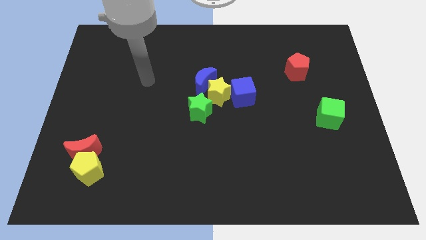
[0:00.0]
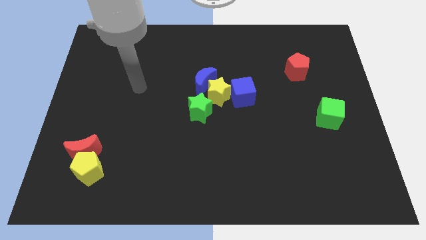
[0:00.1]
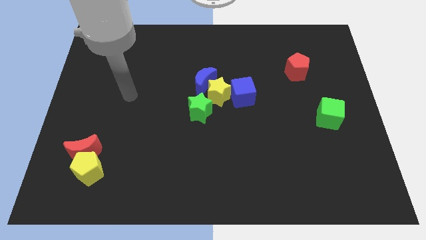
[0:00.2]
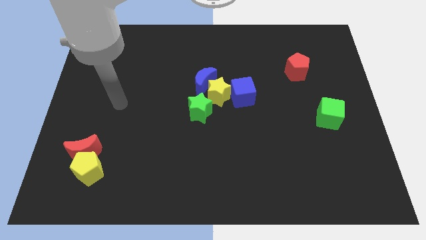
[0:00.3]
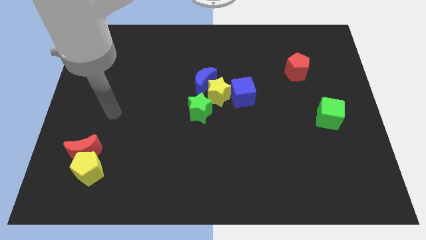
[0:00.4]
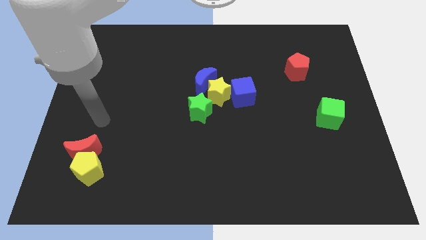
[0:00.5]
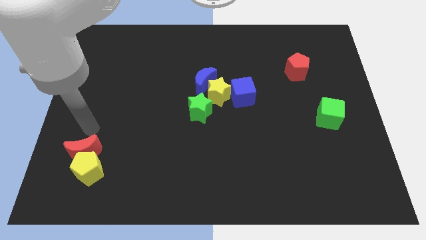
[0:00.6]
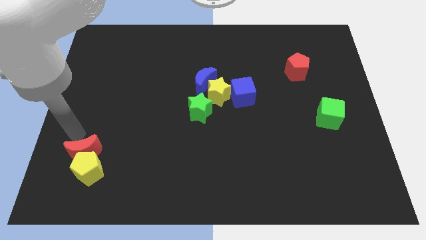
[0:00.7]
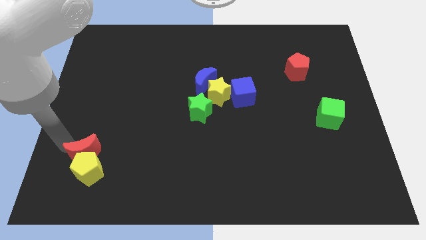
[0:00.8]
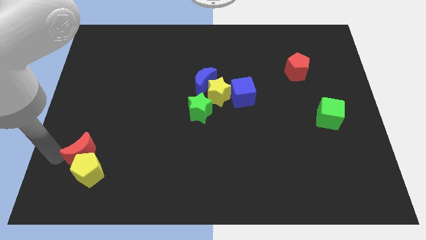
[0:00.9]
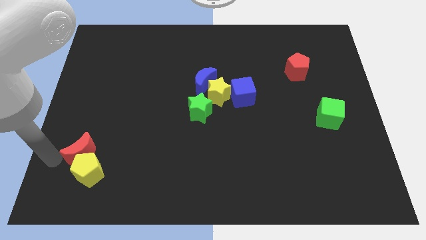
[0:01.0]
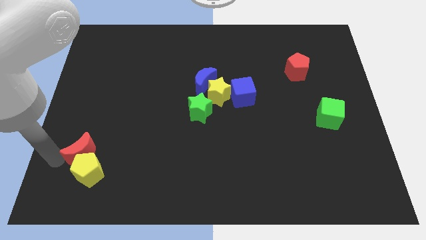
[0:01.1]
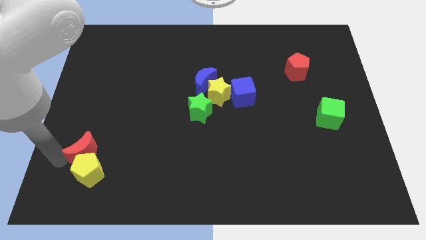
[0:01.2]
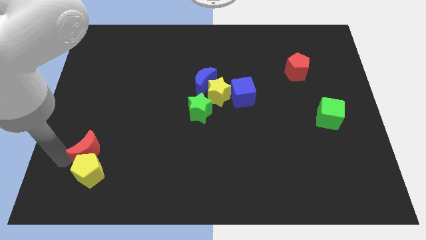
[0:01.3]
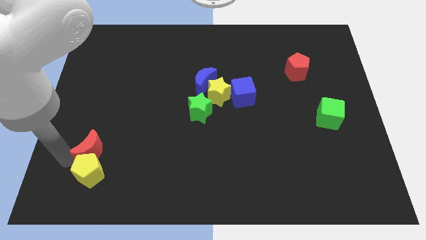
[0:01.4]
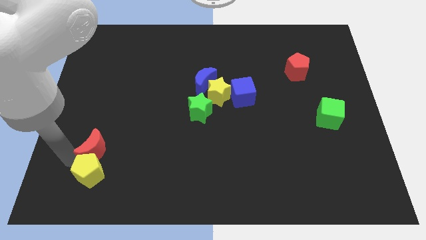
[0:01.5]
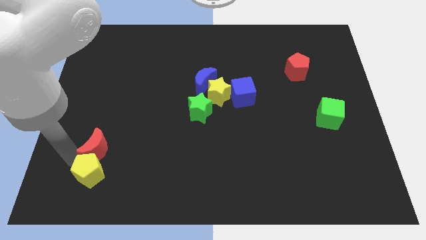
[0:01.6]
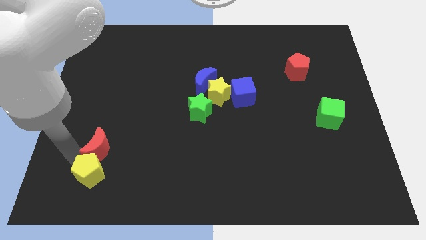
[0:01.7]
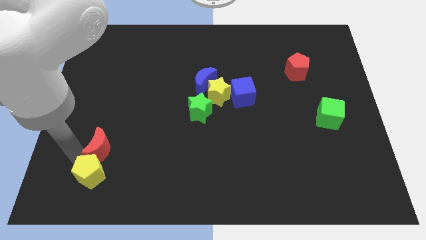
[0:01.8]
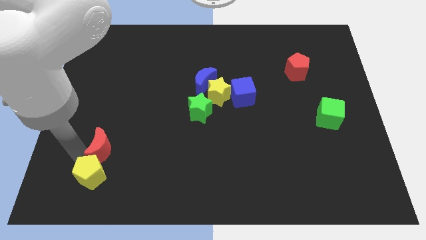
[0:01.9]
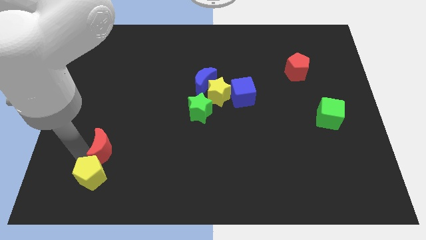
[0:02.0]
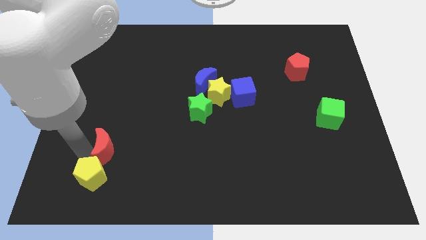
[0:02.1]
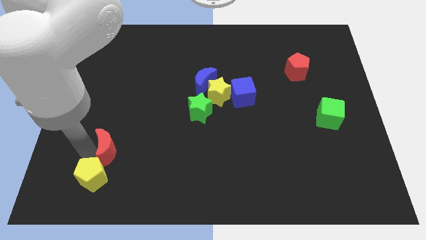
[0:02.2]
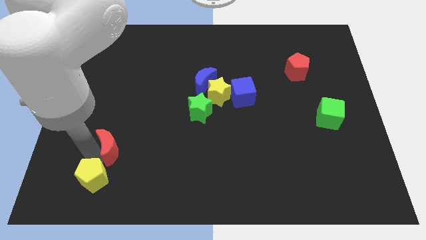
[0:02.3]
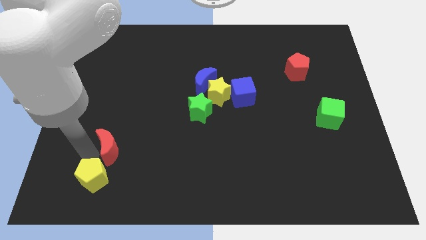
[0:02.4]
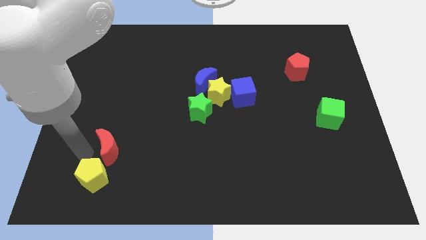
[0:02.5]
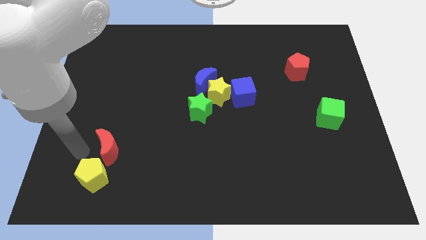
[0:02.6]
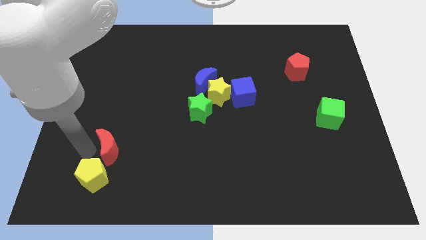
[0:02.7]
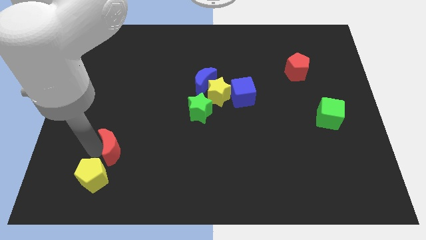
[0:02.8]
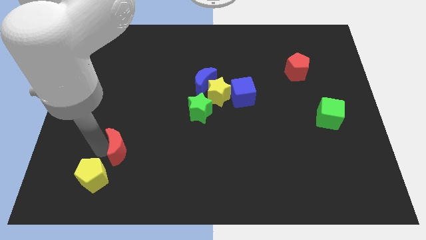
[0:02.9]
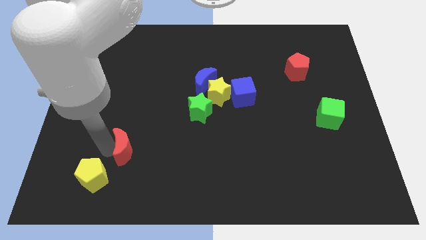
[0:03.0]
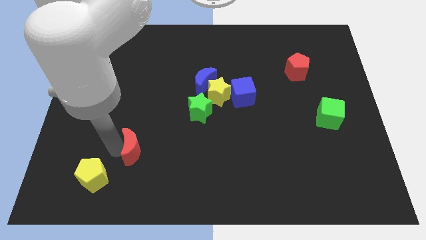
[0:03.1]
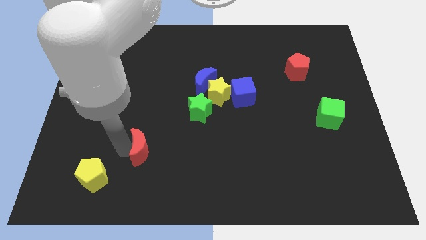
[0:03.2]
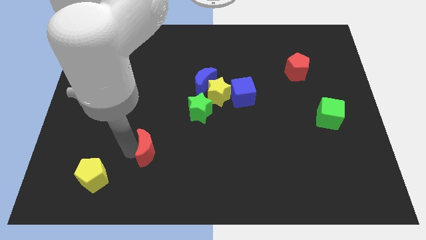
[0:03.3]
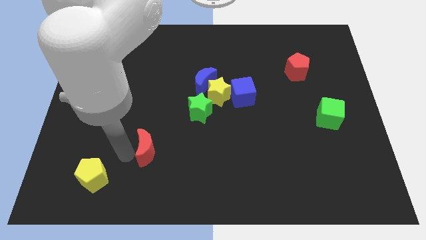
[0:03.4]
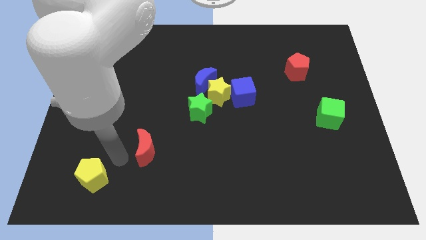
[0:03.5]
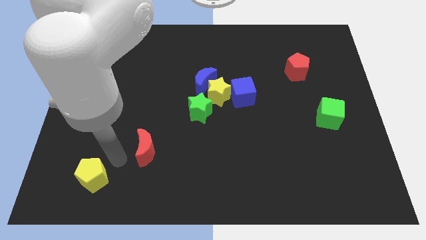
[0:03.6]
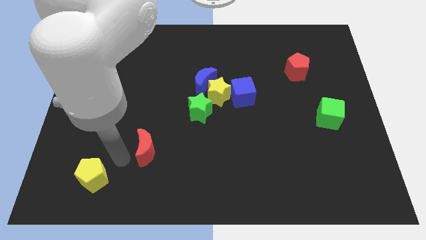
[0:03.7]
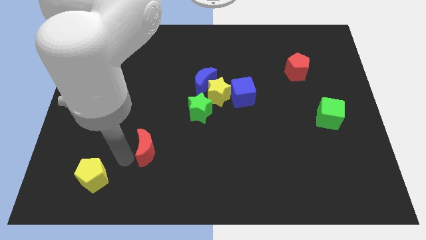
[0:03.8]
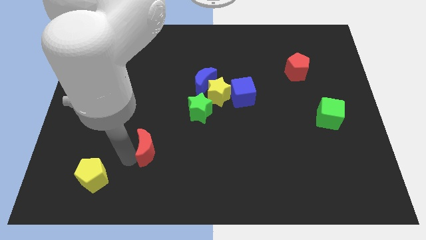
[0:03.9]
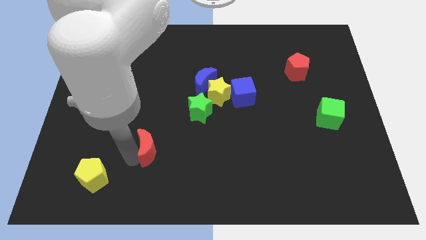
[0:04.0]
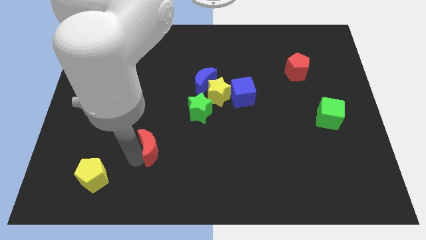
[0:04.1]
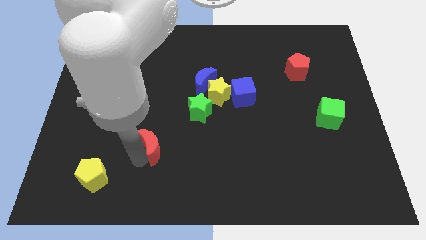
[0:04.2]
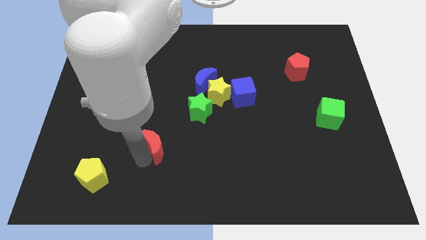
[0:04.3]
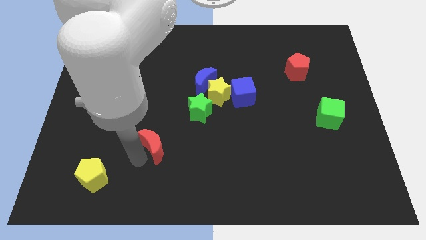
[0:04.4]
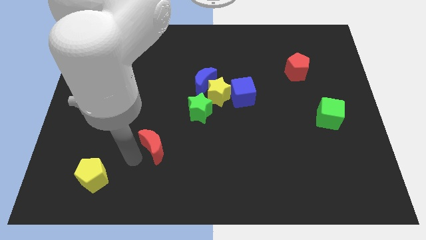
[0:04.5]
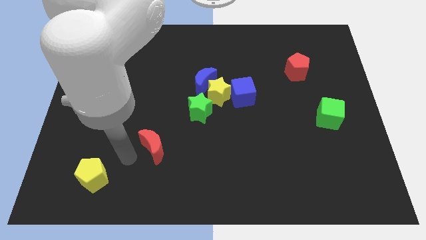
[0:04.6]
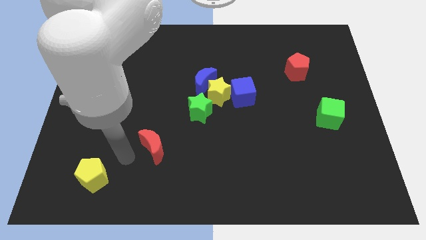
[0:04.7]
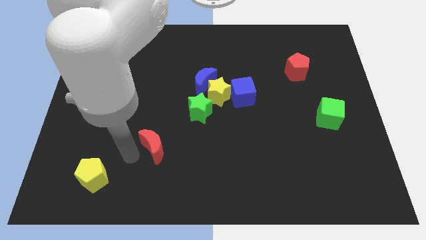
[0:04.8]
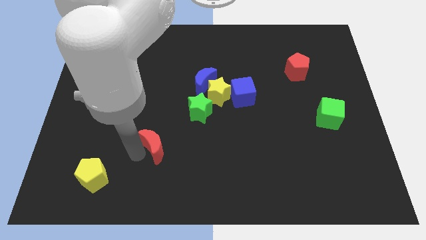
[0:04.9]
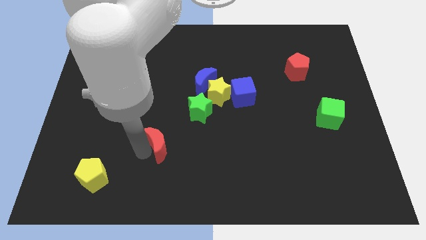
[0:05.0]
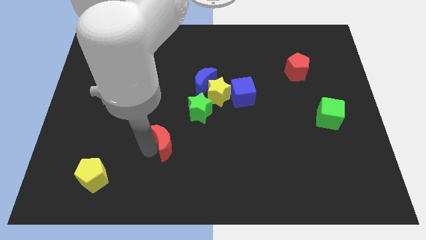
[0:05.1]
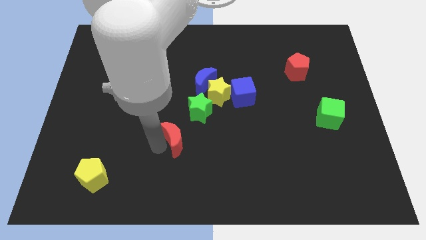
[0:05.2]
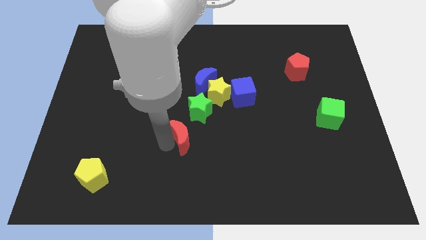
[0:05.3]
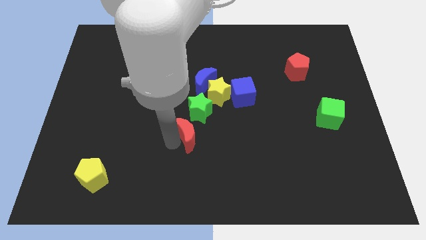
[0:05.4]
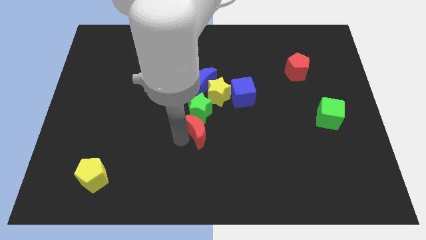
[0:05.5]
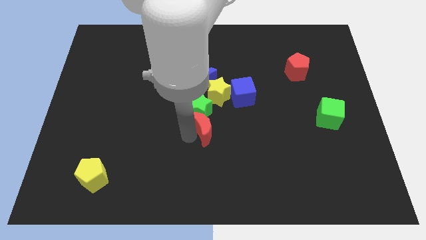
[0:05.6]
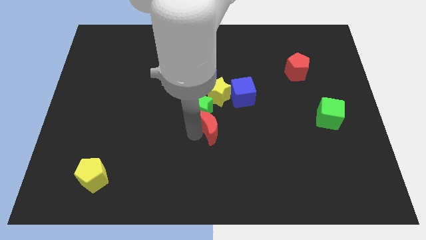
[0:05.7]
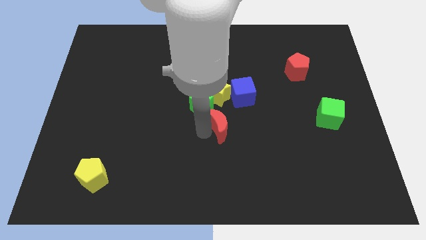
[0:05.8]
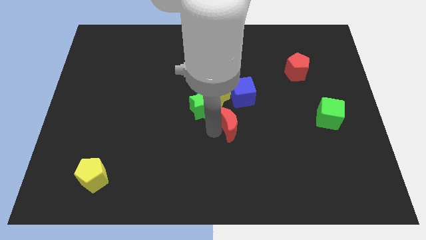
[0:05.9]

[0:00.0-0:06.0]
push the red moon just right of the green star

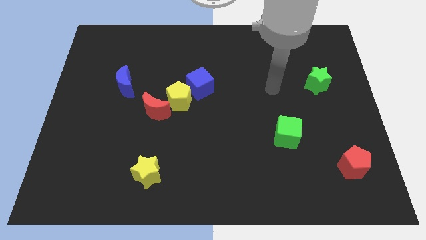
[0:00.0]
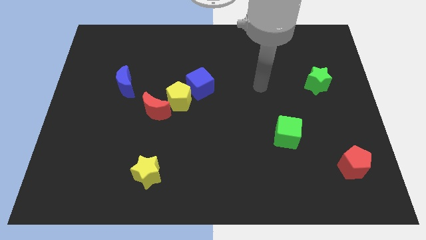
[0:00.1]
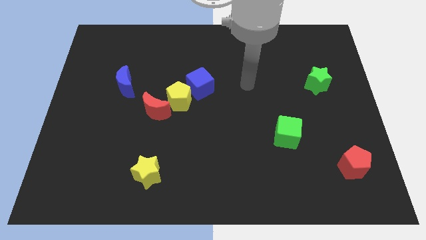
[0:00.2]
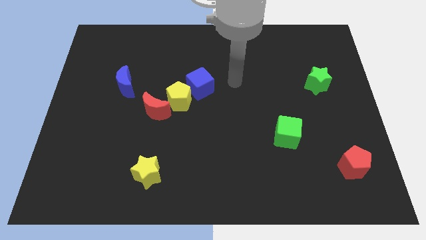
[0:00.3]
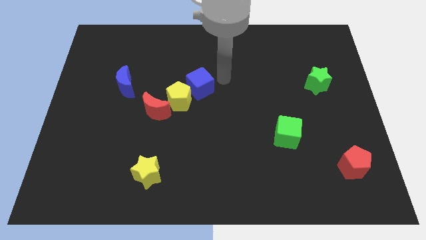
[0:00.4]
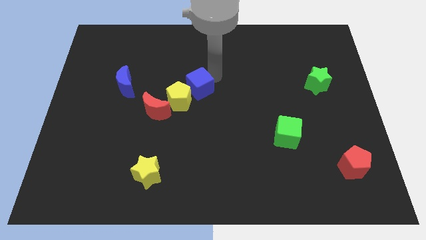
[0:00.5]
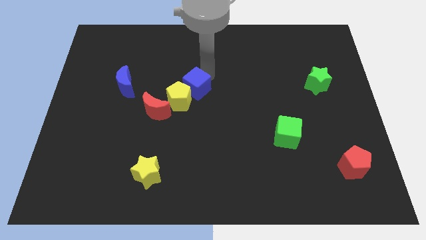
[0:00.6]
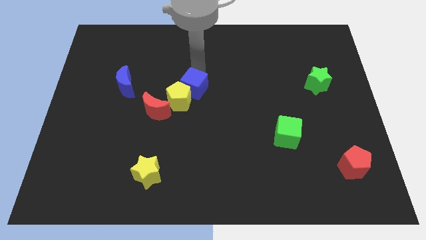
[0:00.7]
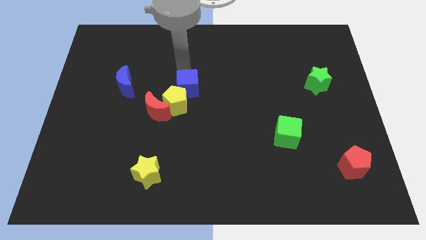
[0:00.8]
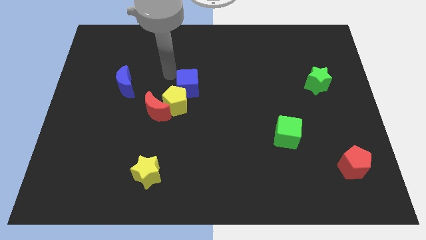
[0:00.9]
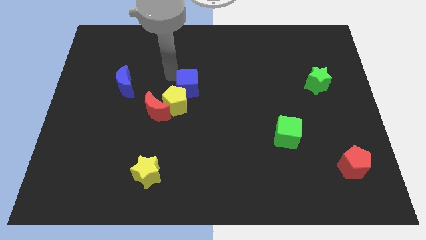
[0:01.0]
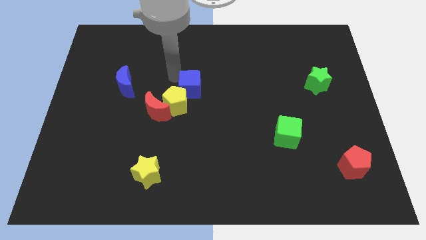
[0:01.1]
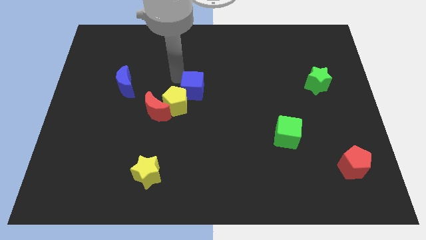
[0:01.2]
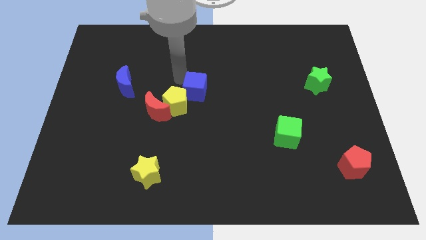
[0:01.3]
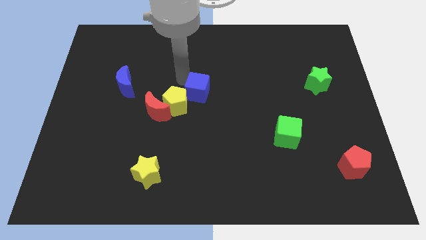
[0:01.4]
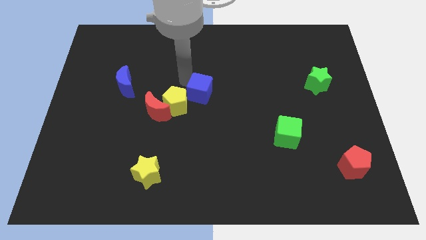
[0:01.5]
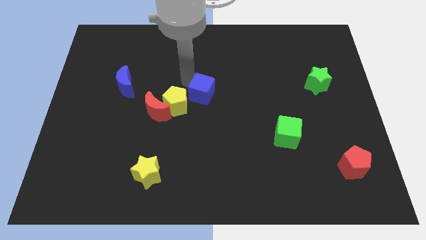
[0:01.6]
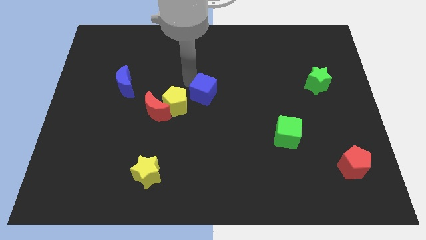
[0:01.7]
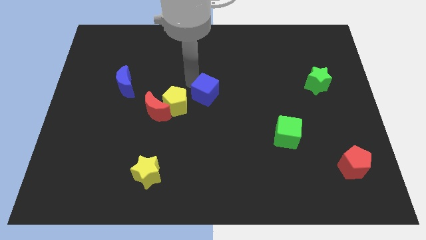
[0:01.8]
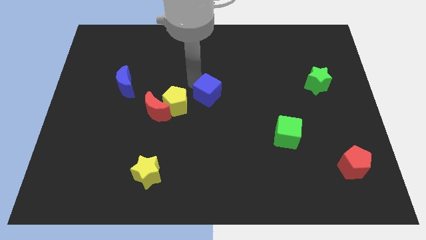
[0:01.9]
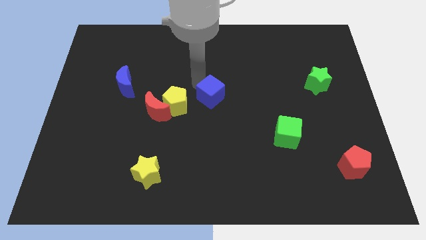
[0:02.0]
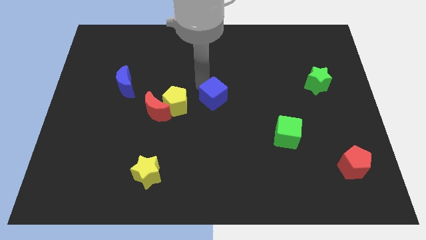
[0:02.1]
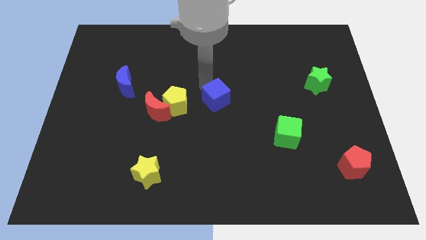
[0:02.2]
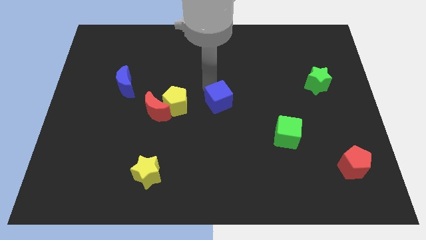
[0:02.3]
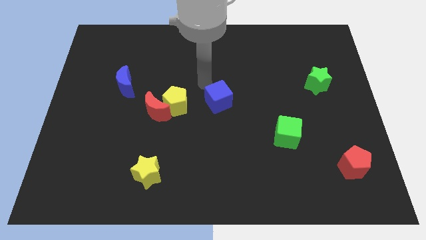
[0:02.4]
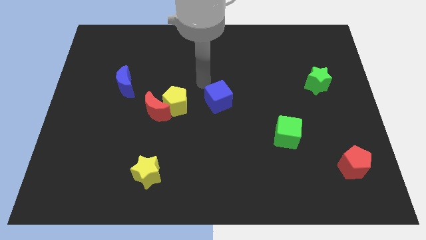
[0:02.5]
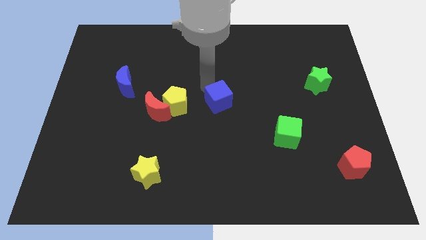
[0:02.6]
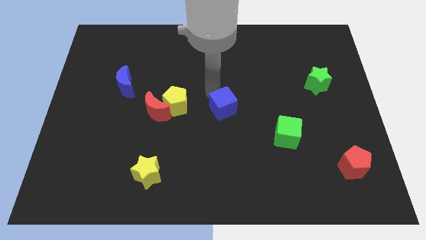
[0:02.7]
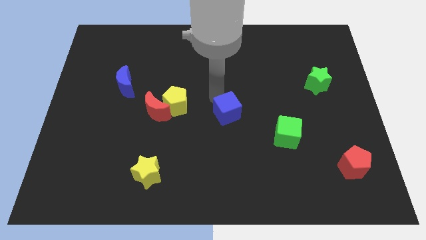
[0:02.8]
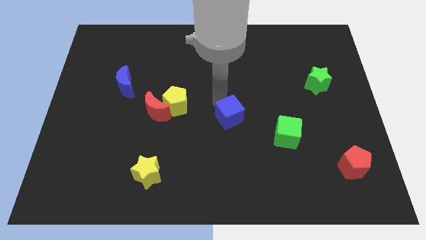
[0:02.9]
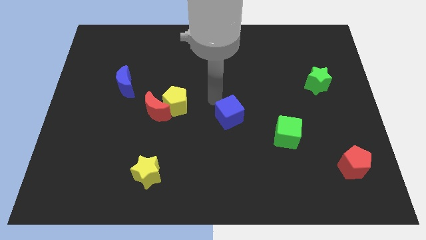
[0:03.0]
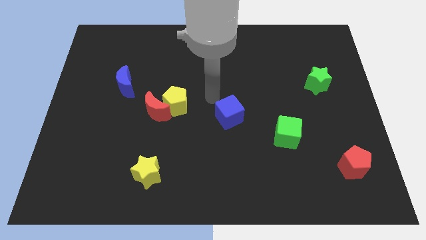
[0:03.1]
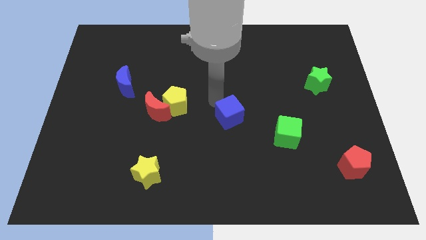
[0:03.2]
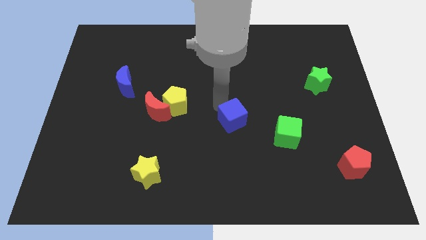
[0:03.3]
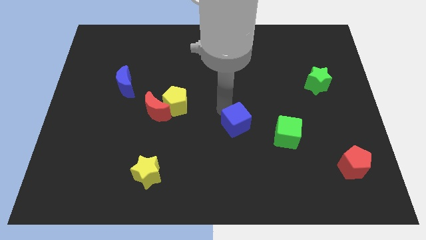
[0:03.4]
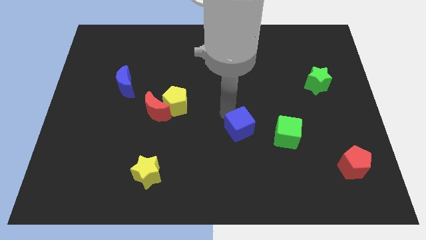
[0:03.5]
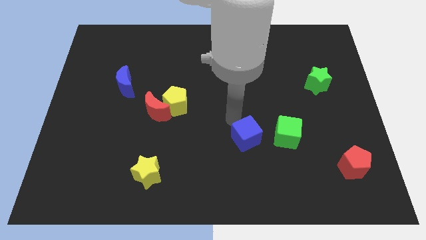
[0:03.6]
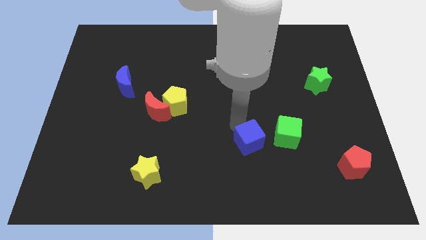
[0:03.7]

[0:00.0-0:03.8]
slide the blue cube diagonally down and to the left of the green cube
